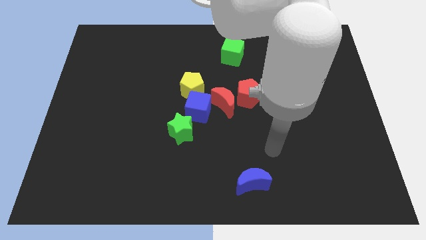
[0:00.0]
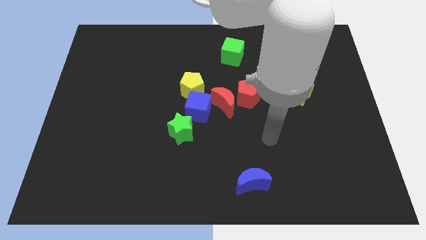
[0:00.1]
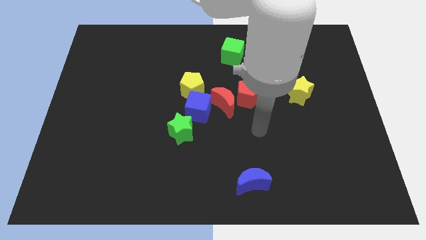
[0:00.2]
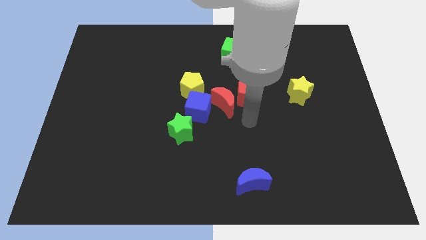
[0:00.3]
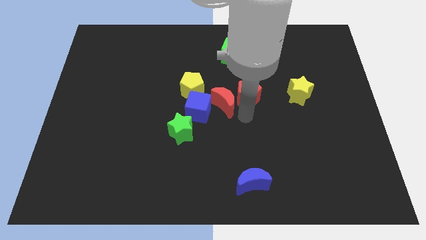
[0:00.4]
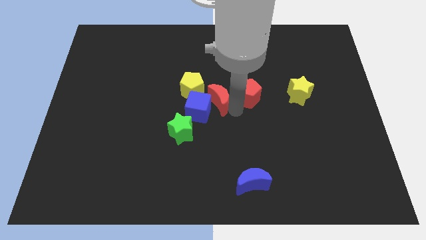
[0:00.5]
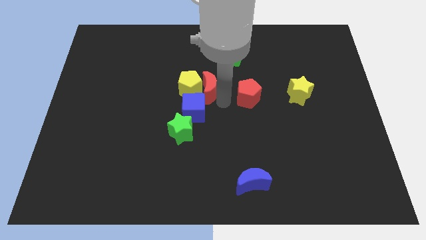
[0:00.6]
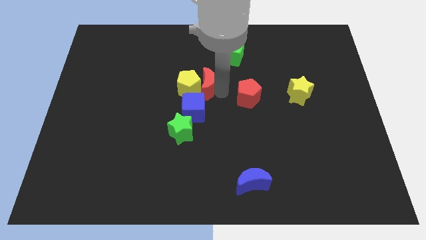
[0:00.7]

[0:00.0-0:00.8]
separate the red pentagon from the red moon

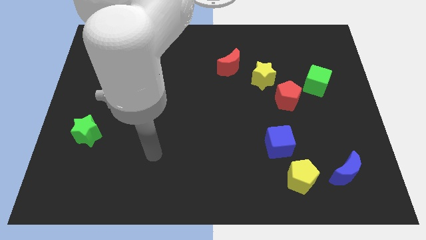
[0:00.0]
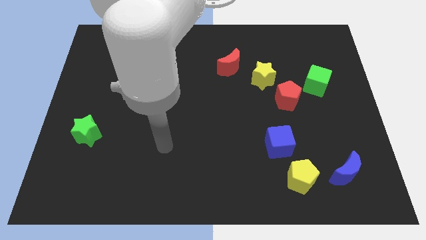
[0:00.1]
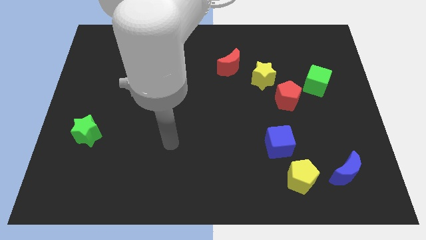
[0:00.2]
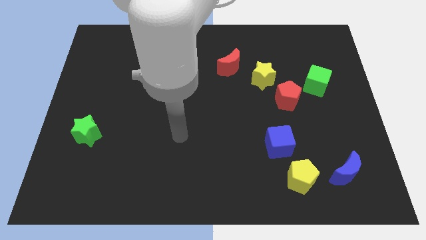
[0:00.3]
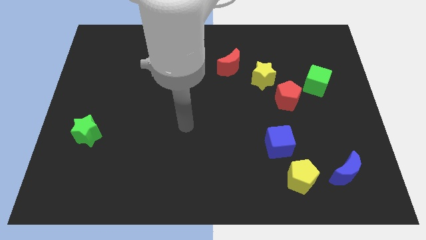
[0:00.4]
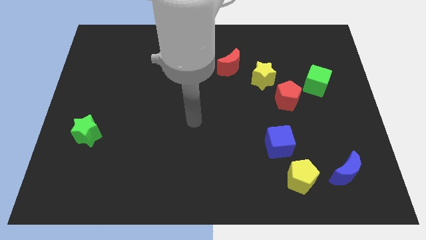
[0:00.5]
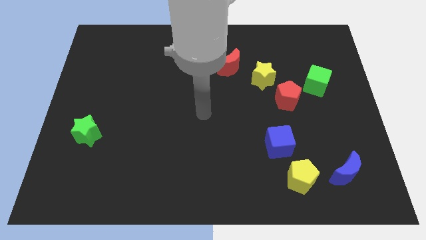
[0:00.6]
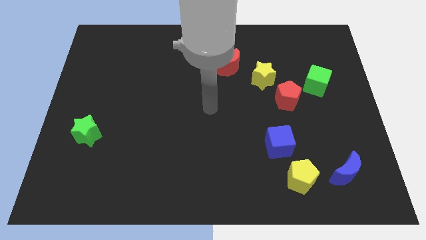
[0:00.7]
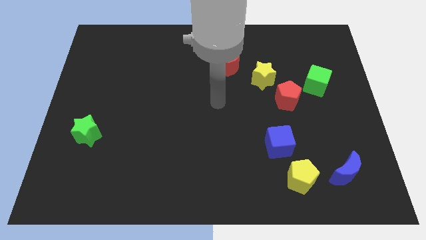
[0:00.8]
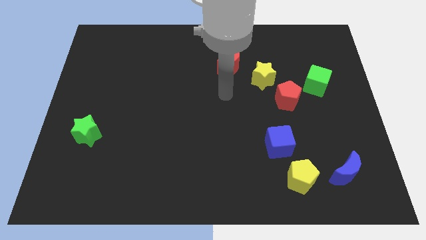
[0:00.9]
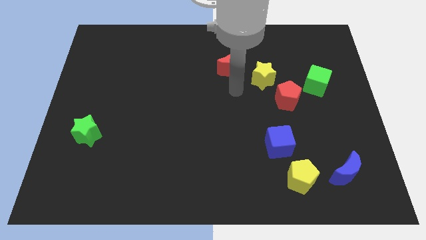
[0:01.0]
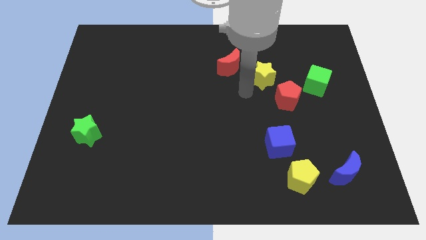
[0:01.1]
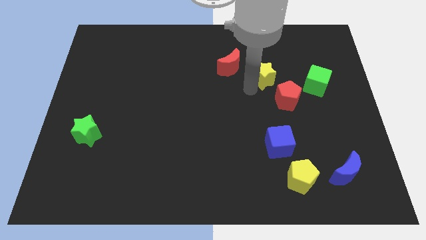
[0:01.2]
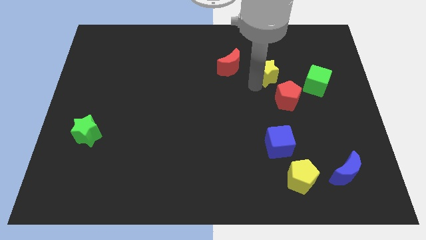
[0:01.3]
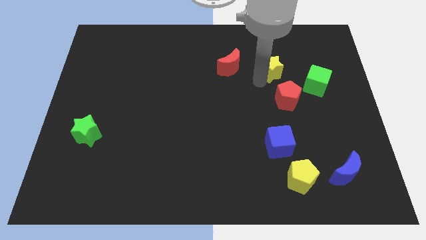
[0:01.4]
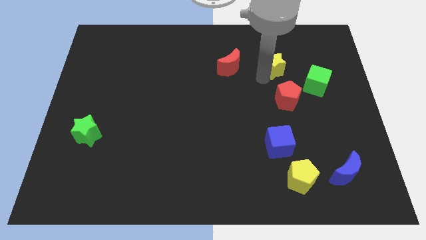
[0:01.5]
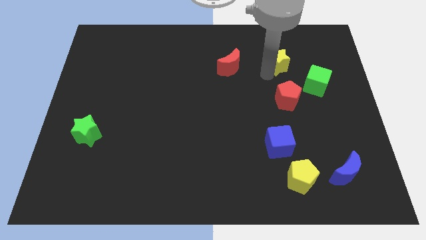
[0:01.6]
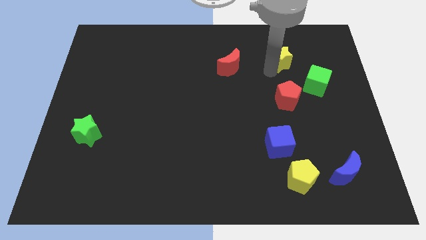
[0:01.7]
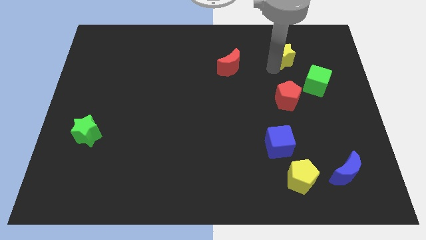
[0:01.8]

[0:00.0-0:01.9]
move the yellow star away from the red pentagon and red moon

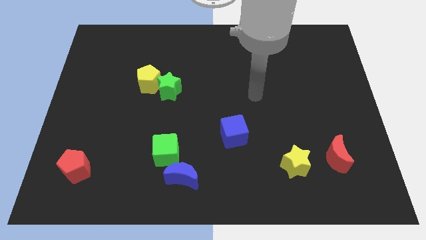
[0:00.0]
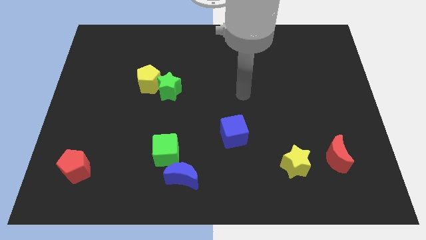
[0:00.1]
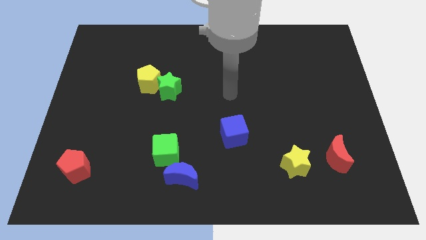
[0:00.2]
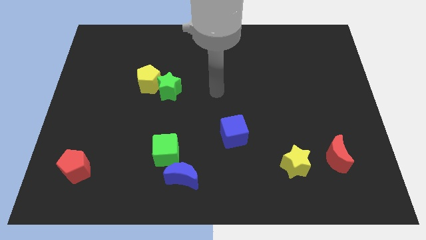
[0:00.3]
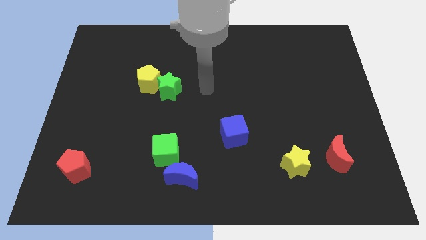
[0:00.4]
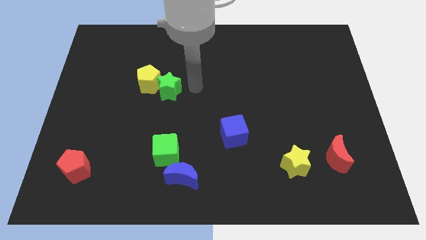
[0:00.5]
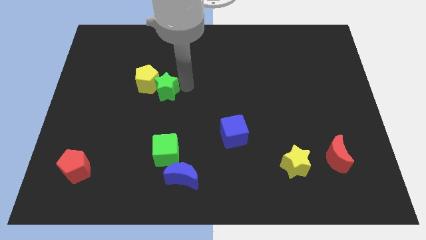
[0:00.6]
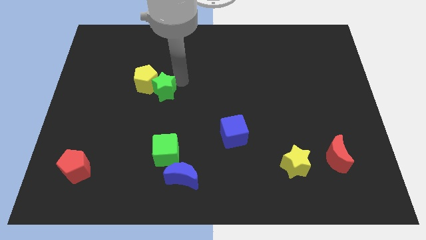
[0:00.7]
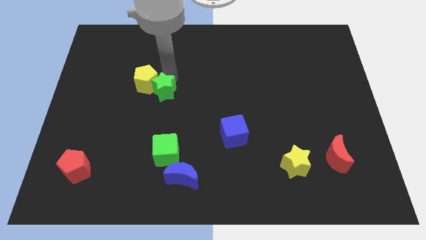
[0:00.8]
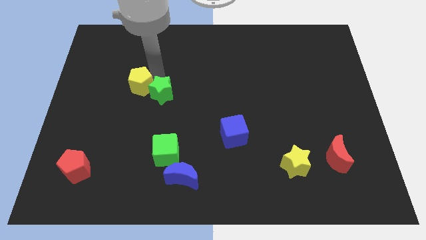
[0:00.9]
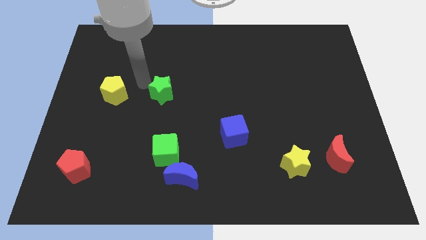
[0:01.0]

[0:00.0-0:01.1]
pull the green star apart from the yellow pentagon

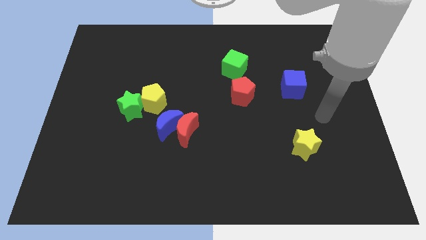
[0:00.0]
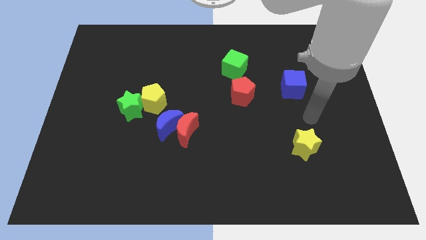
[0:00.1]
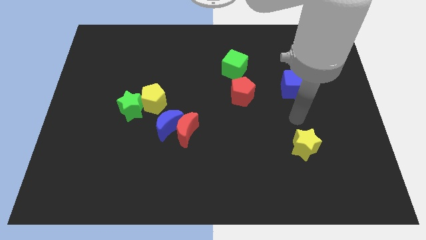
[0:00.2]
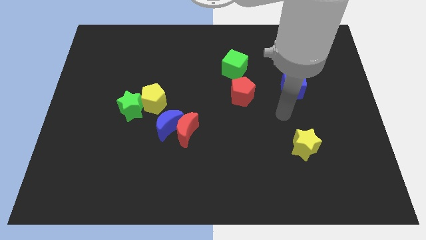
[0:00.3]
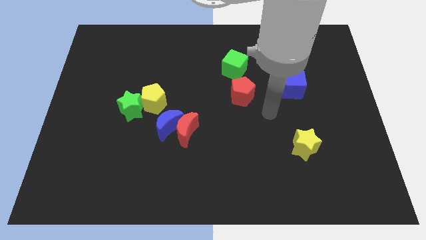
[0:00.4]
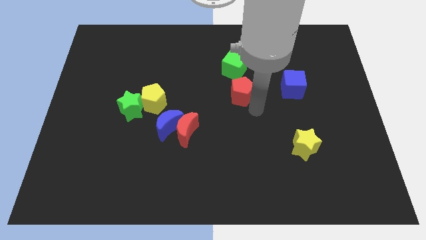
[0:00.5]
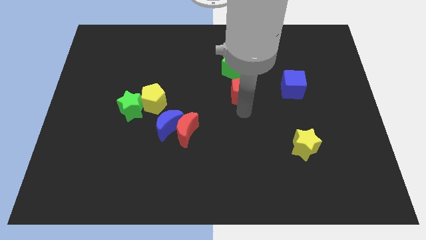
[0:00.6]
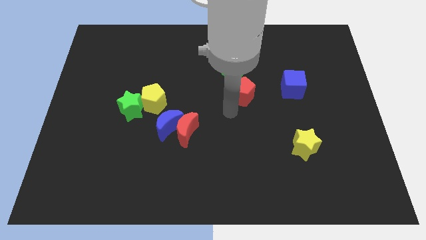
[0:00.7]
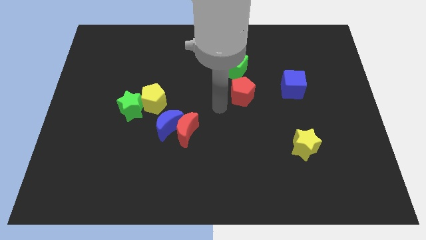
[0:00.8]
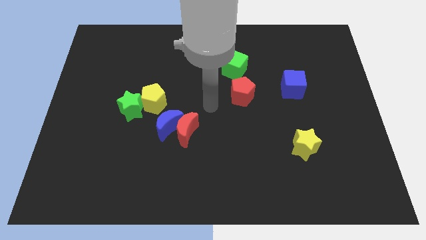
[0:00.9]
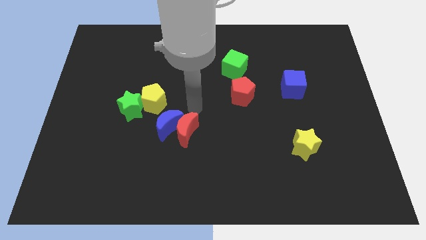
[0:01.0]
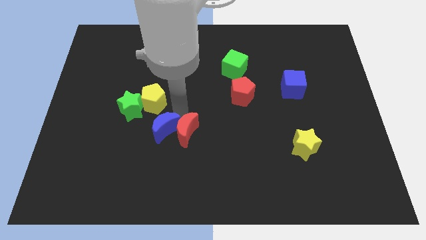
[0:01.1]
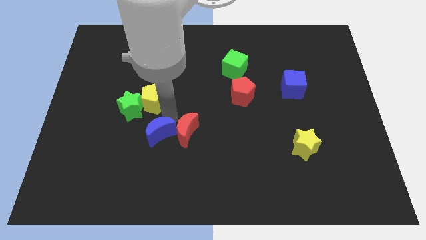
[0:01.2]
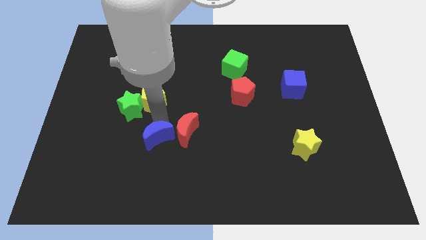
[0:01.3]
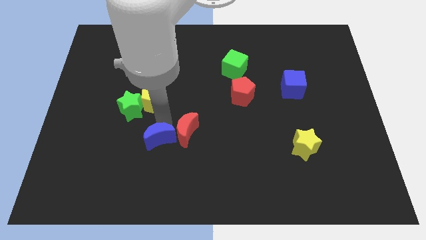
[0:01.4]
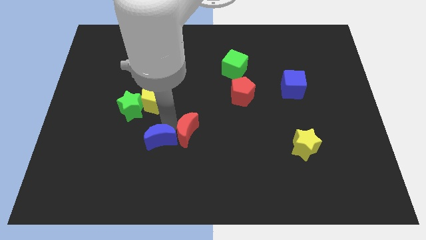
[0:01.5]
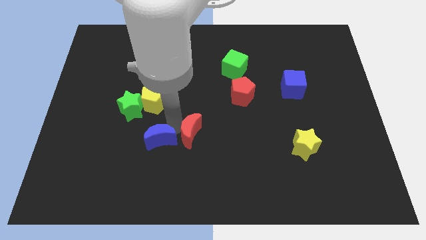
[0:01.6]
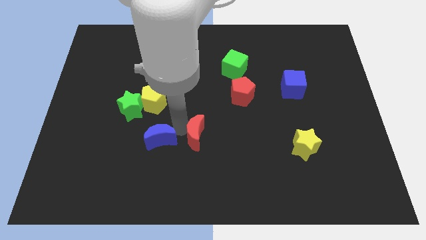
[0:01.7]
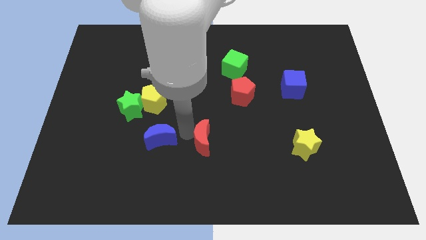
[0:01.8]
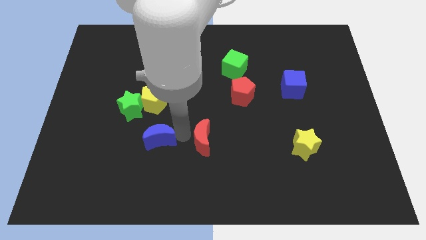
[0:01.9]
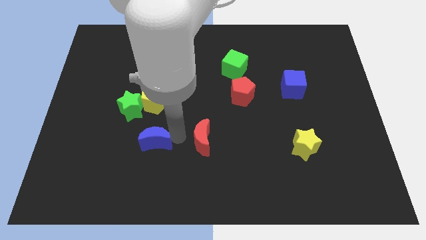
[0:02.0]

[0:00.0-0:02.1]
move the red moon away from the blue moon

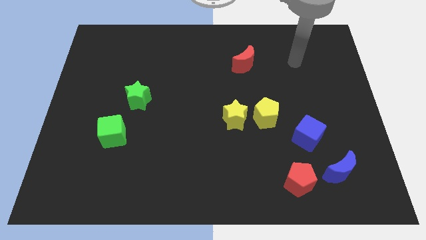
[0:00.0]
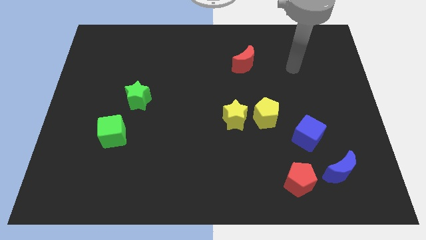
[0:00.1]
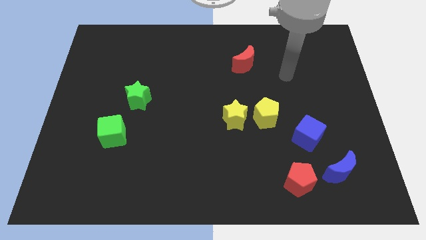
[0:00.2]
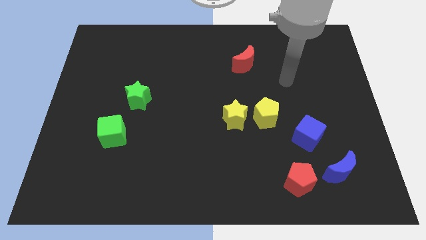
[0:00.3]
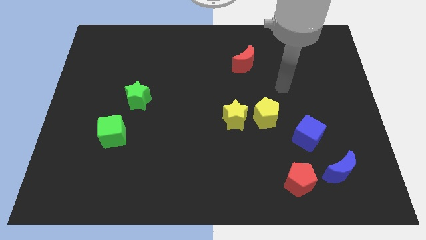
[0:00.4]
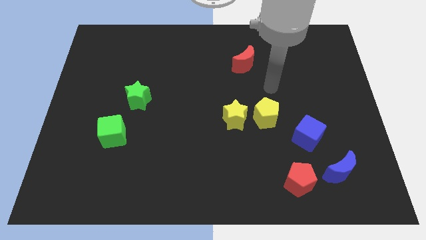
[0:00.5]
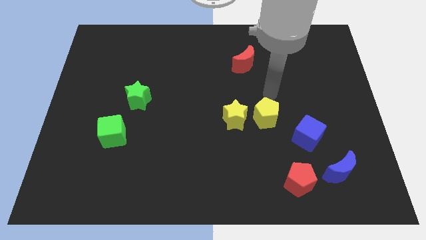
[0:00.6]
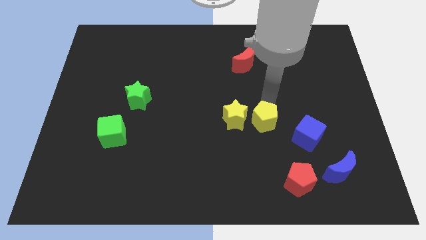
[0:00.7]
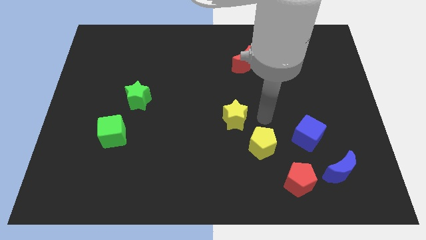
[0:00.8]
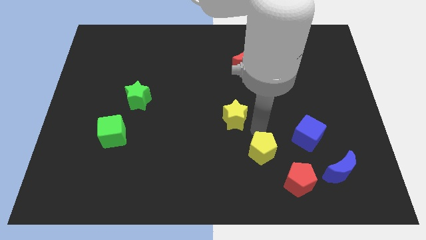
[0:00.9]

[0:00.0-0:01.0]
move the yellow star away from the yellow pentagon

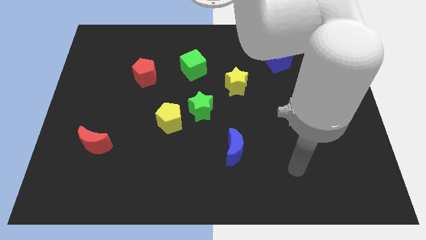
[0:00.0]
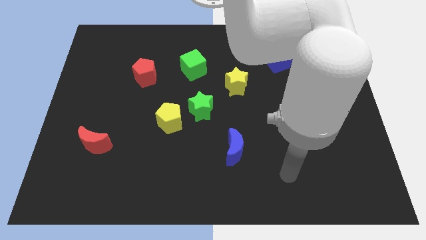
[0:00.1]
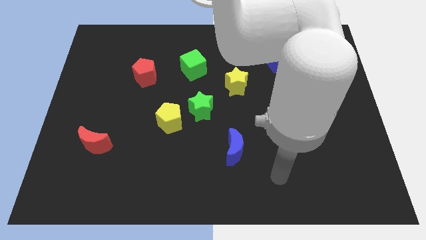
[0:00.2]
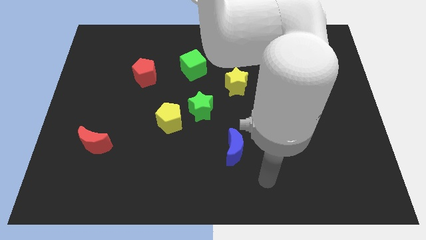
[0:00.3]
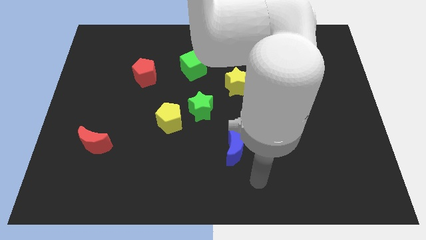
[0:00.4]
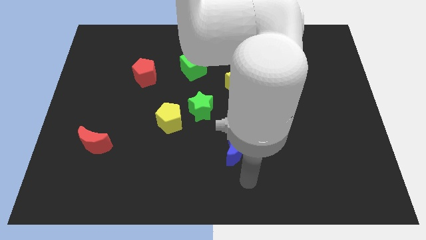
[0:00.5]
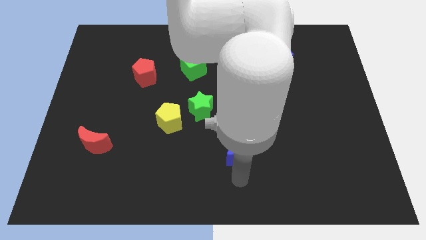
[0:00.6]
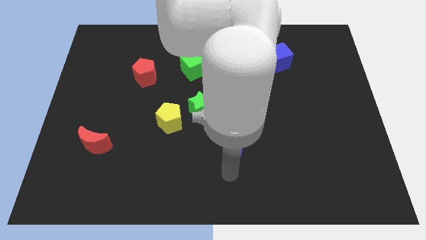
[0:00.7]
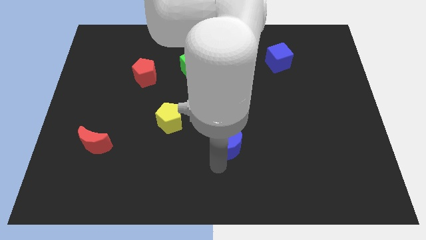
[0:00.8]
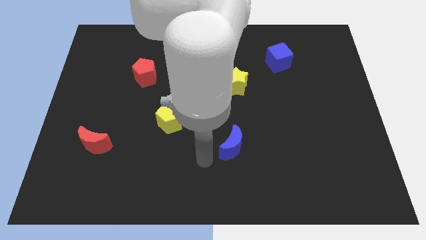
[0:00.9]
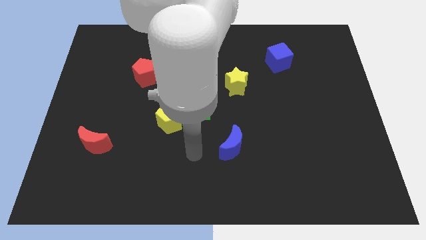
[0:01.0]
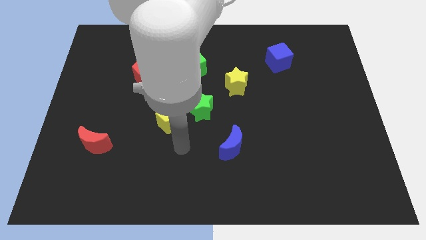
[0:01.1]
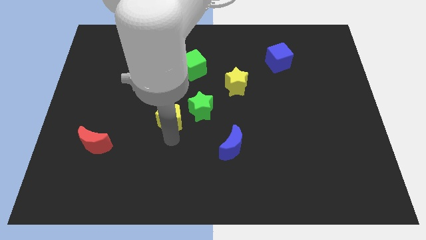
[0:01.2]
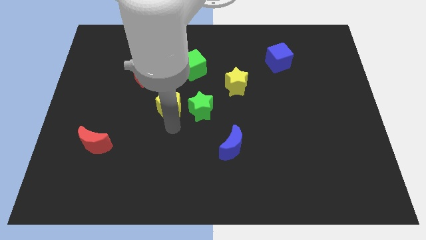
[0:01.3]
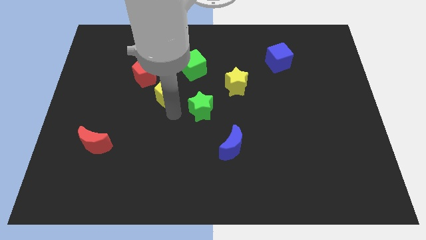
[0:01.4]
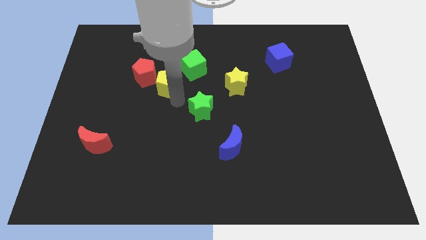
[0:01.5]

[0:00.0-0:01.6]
move the green star away from the yellow pentagon

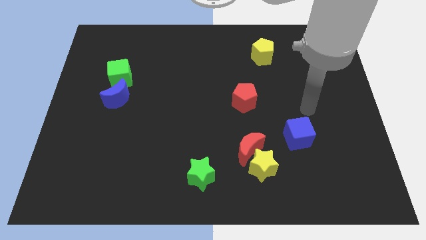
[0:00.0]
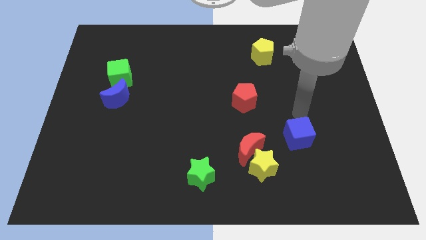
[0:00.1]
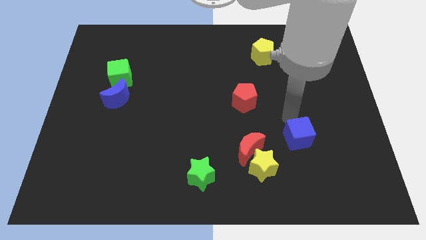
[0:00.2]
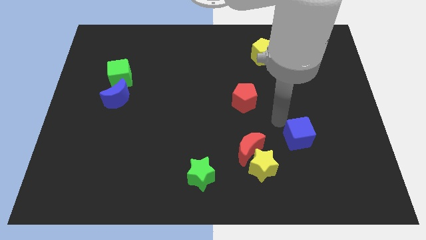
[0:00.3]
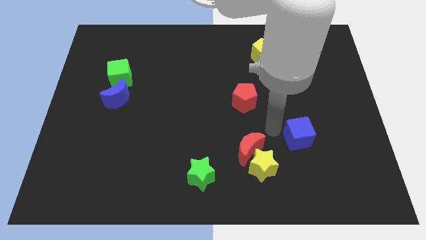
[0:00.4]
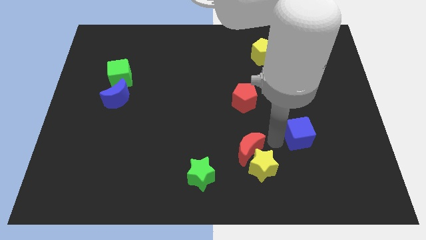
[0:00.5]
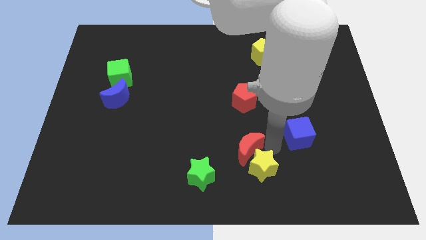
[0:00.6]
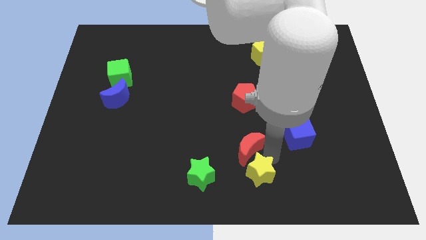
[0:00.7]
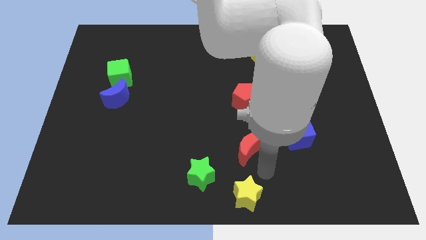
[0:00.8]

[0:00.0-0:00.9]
move the red moon away from the yellow star
